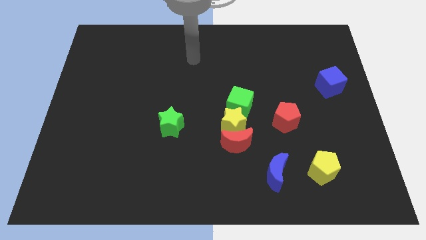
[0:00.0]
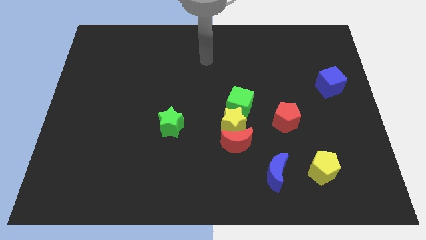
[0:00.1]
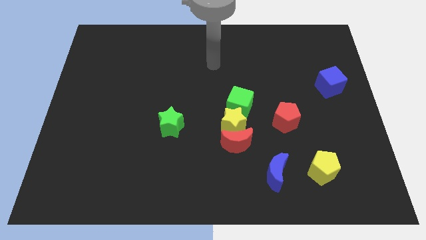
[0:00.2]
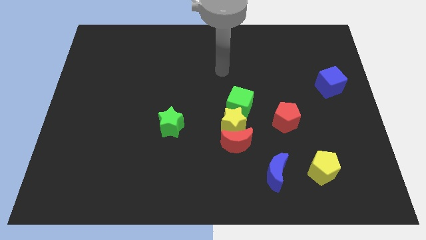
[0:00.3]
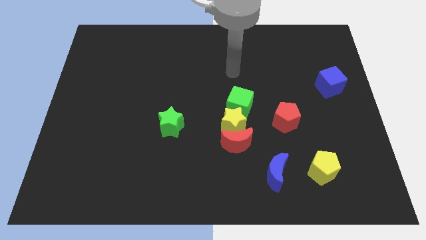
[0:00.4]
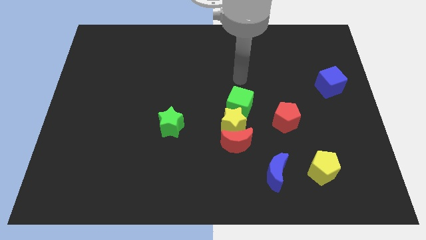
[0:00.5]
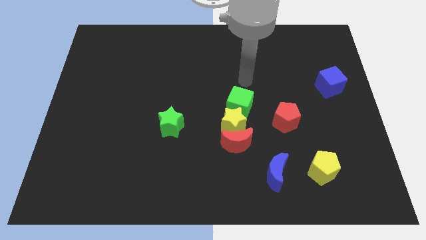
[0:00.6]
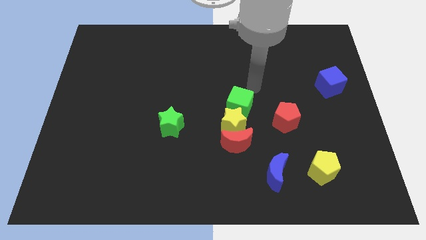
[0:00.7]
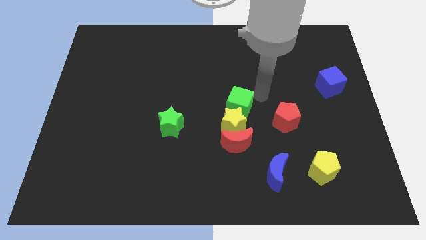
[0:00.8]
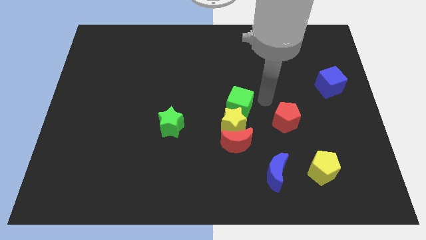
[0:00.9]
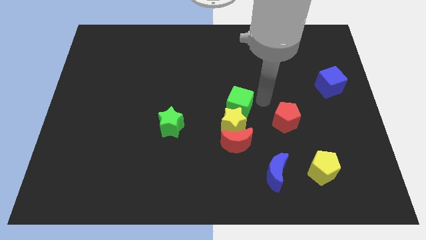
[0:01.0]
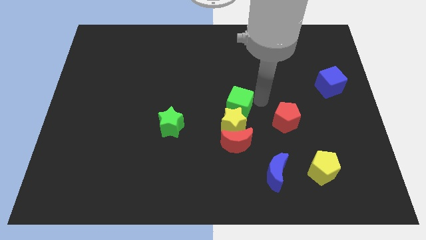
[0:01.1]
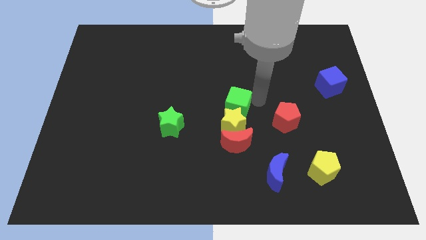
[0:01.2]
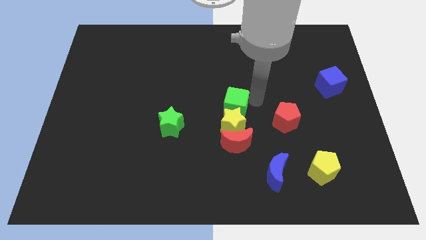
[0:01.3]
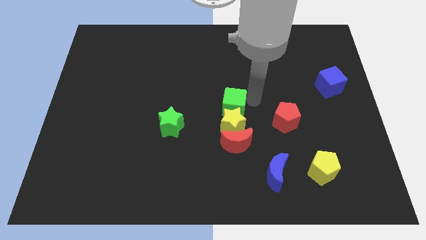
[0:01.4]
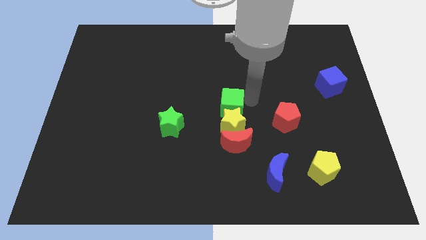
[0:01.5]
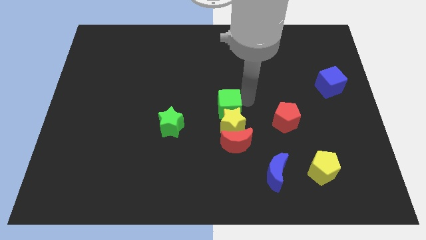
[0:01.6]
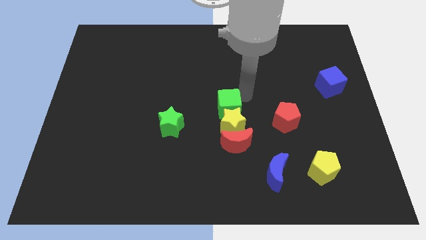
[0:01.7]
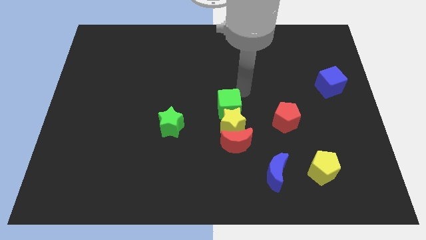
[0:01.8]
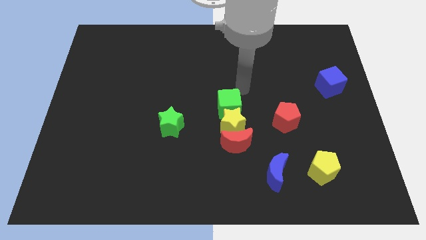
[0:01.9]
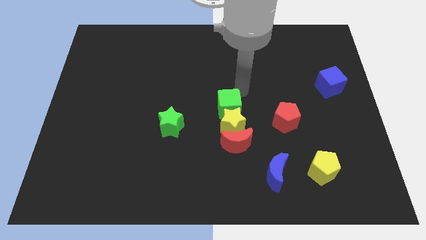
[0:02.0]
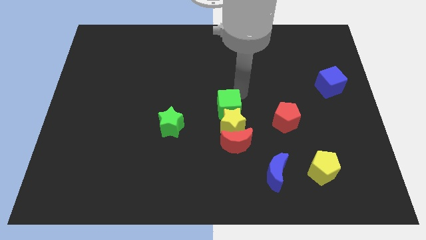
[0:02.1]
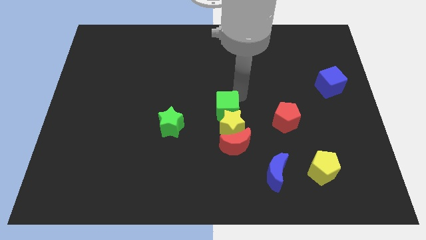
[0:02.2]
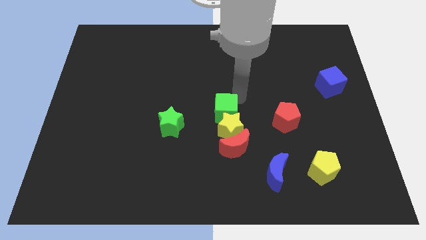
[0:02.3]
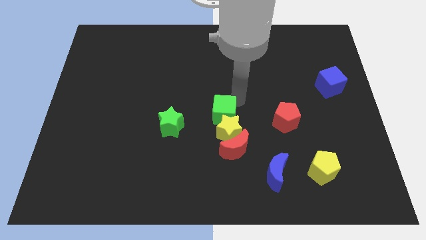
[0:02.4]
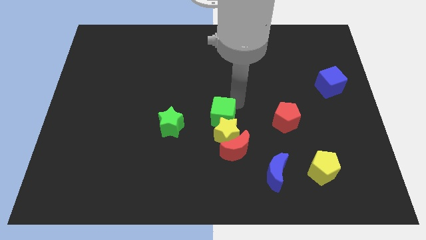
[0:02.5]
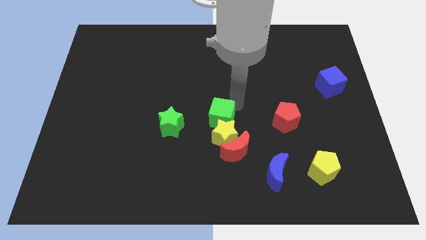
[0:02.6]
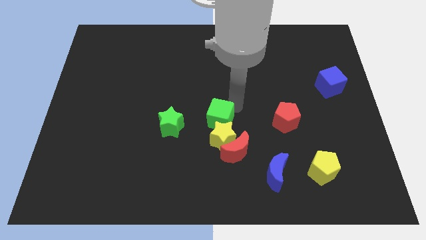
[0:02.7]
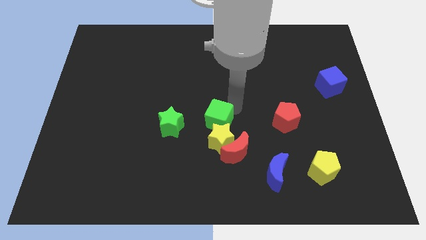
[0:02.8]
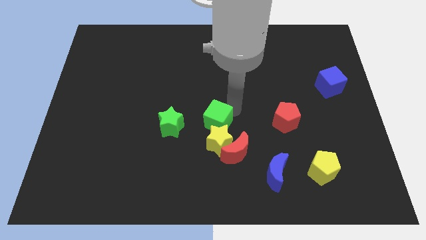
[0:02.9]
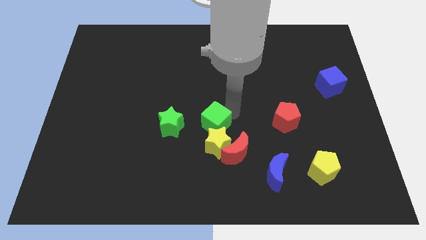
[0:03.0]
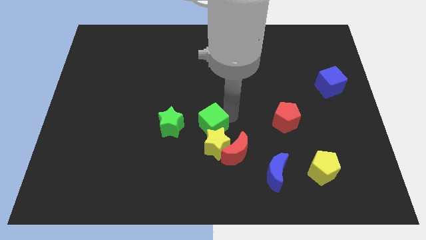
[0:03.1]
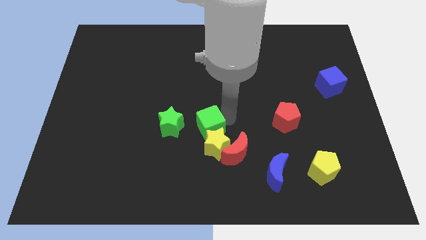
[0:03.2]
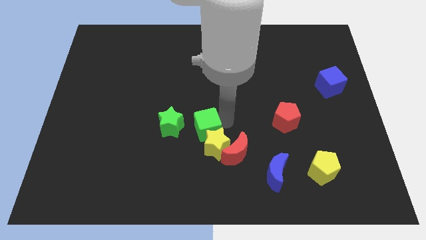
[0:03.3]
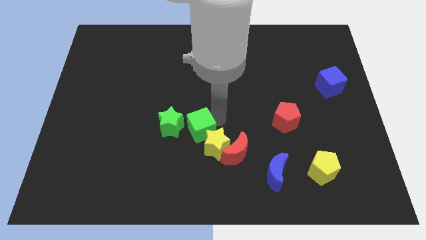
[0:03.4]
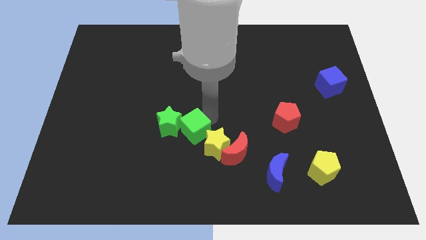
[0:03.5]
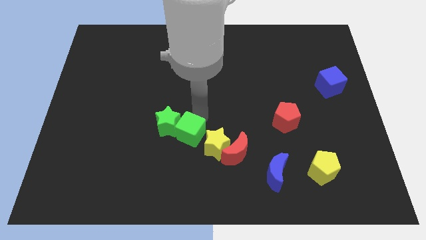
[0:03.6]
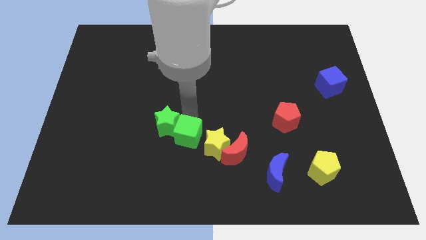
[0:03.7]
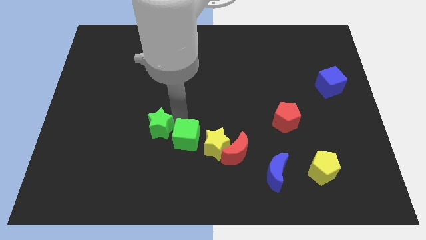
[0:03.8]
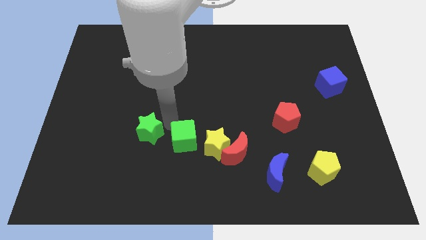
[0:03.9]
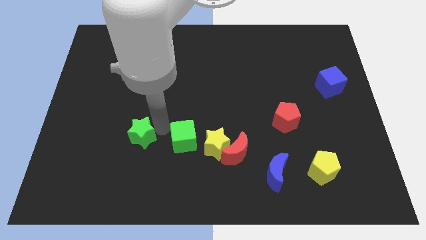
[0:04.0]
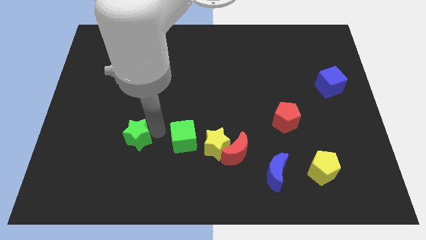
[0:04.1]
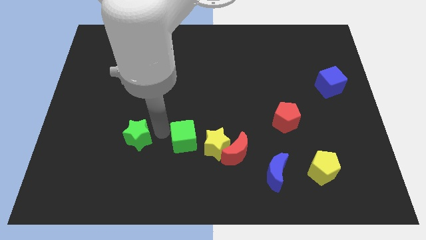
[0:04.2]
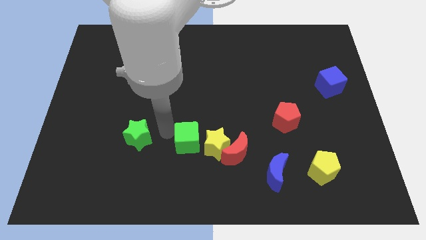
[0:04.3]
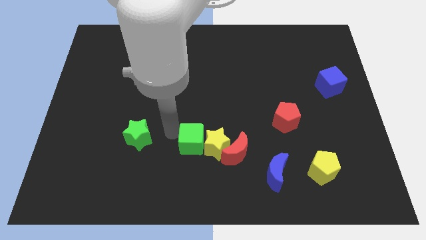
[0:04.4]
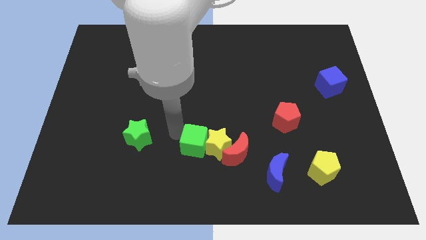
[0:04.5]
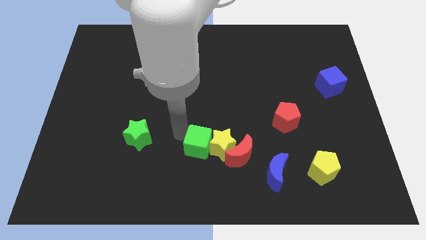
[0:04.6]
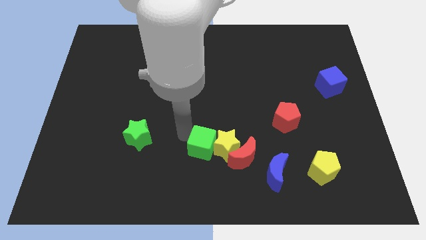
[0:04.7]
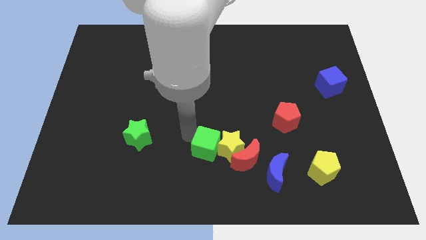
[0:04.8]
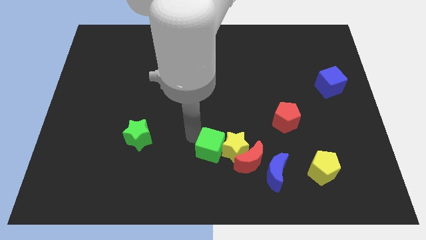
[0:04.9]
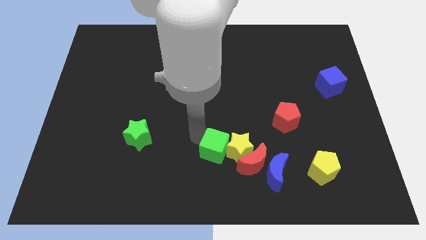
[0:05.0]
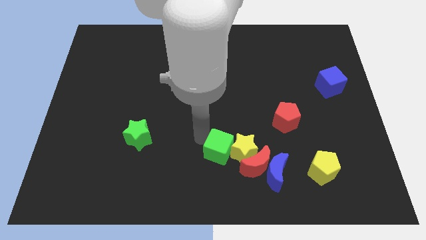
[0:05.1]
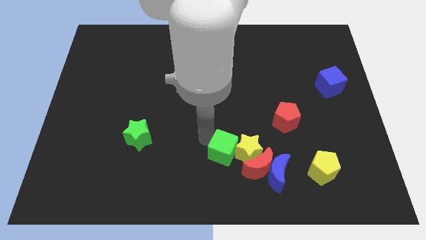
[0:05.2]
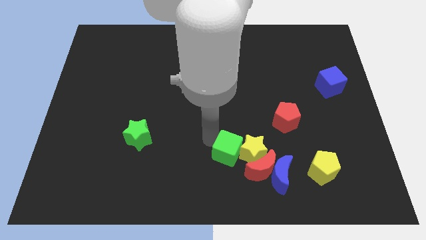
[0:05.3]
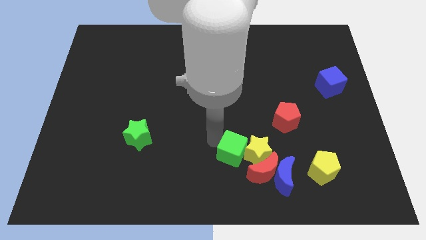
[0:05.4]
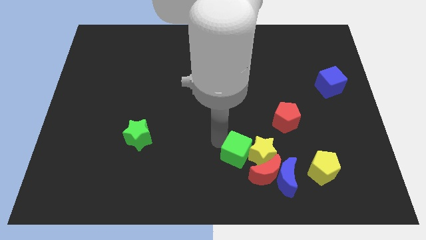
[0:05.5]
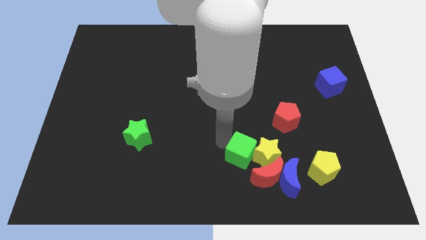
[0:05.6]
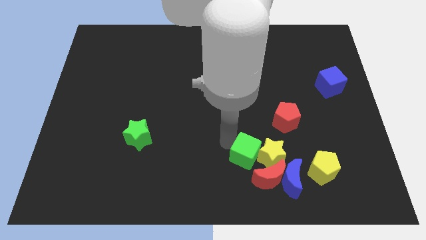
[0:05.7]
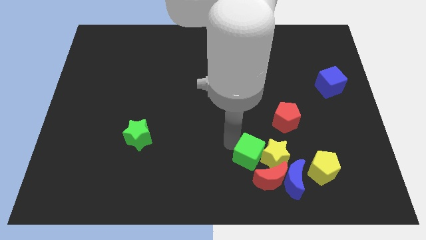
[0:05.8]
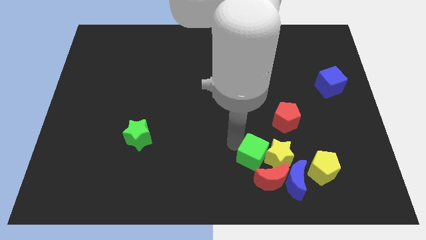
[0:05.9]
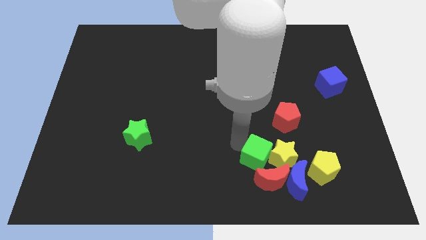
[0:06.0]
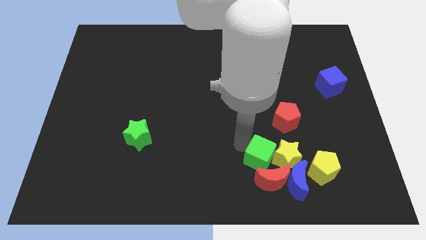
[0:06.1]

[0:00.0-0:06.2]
slide the green cube to the red moon

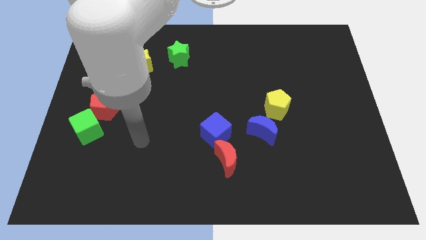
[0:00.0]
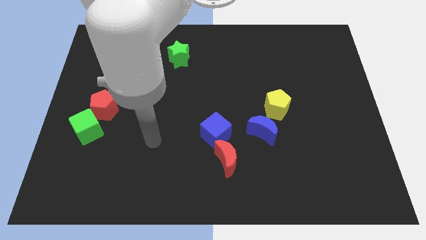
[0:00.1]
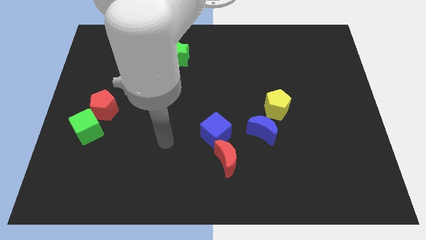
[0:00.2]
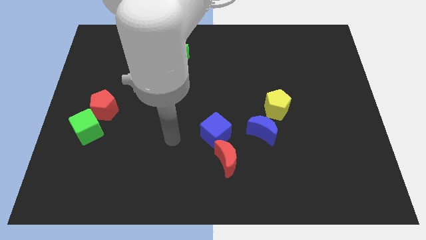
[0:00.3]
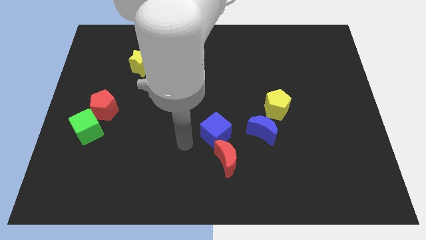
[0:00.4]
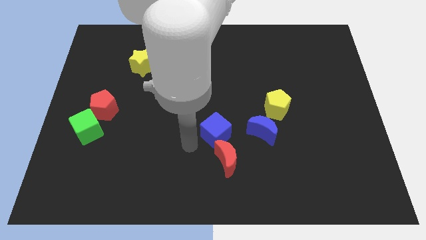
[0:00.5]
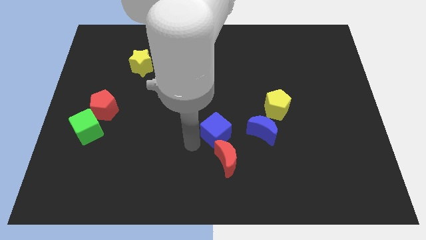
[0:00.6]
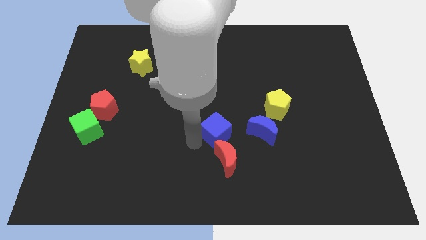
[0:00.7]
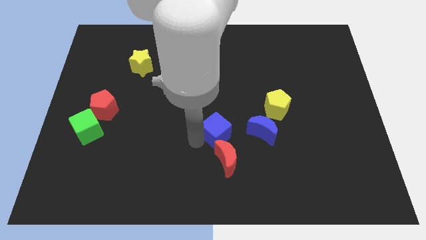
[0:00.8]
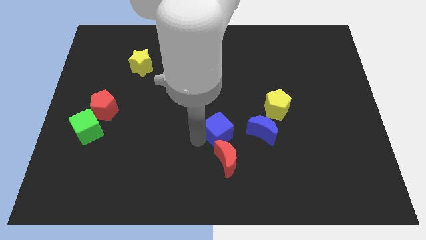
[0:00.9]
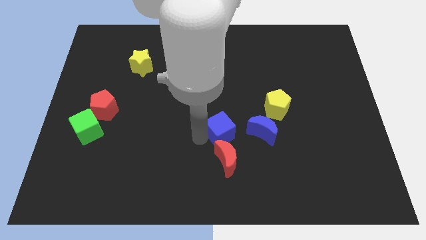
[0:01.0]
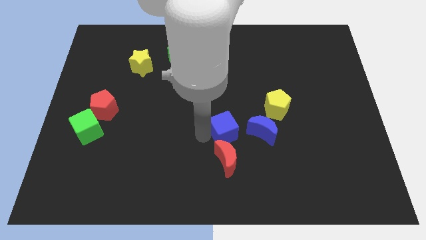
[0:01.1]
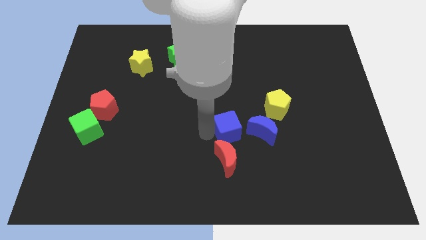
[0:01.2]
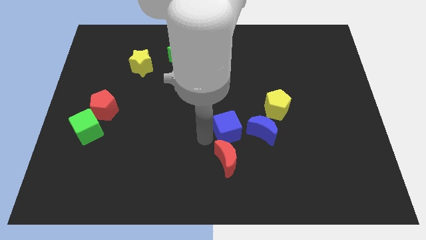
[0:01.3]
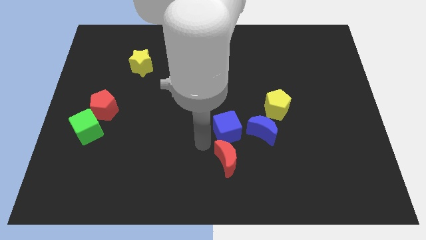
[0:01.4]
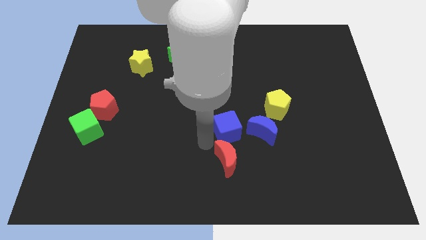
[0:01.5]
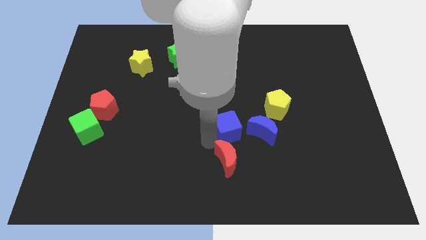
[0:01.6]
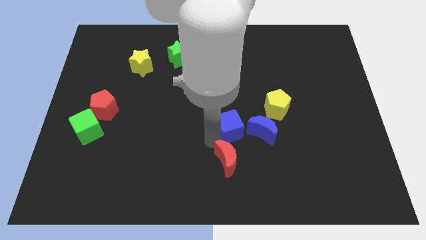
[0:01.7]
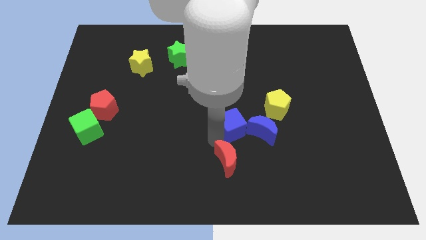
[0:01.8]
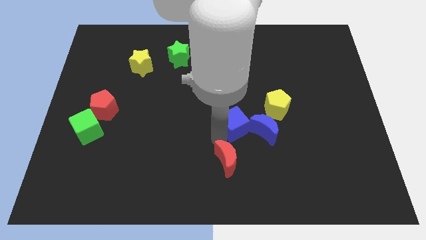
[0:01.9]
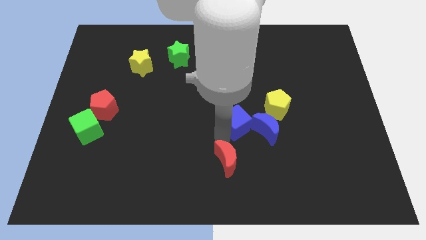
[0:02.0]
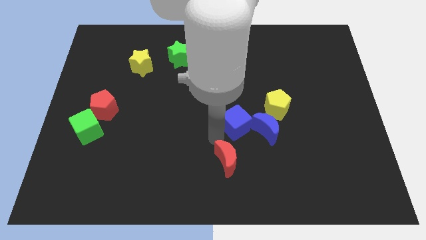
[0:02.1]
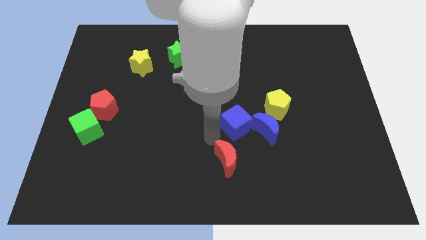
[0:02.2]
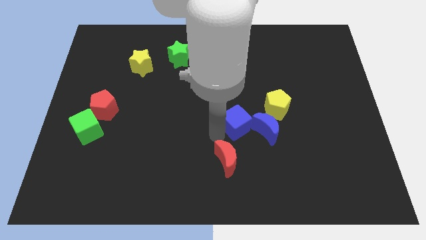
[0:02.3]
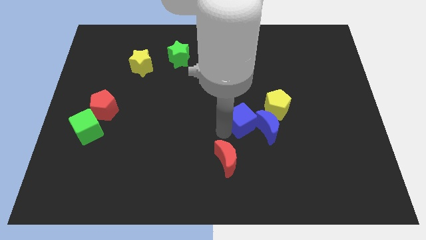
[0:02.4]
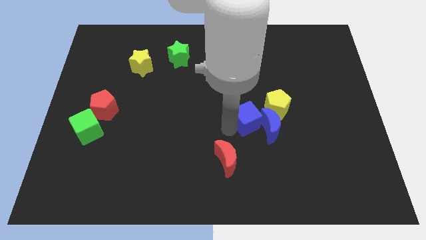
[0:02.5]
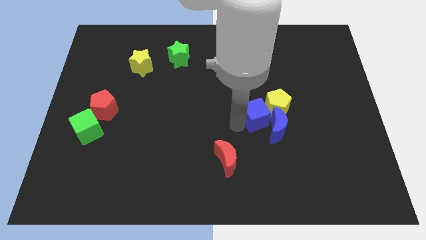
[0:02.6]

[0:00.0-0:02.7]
slide the blue cube towards the yellow pentagon
